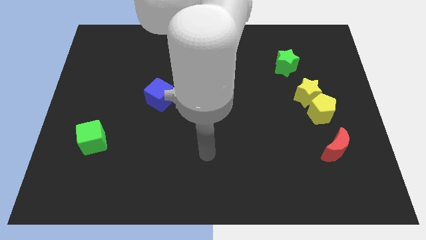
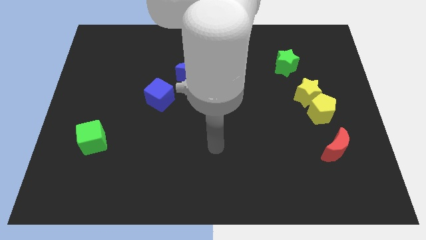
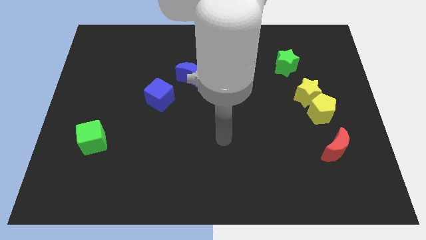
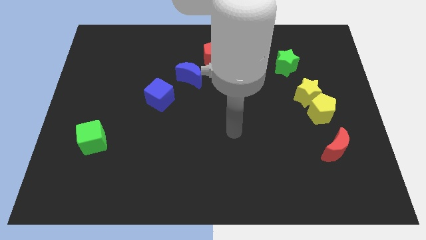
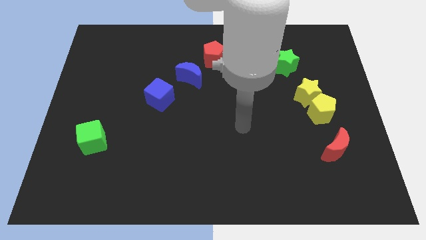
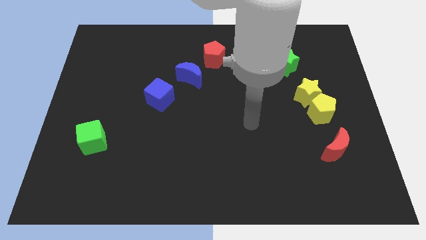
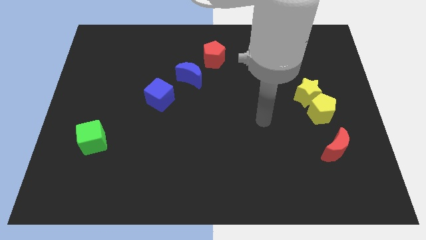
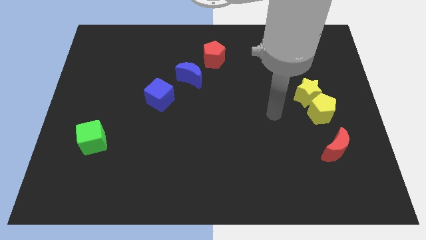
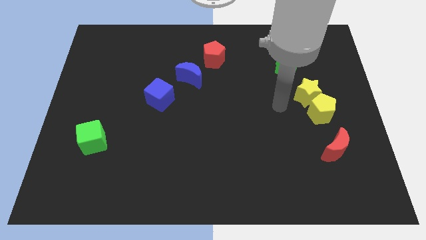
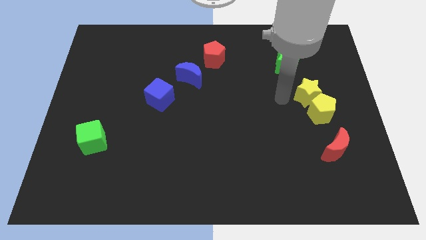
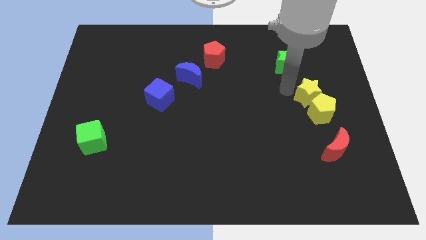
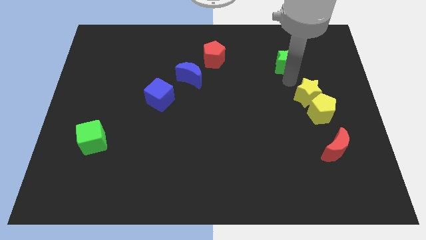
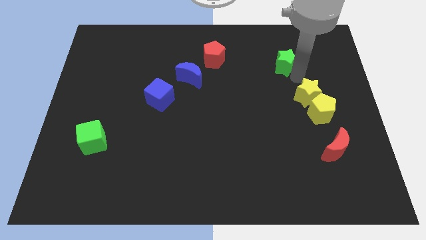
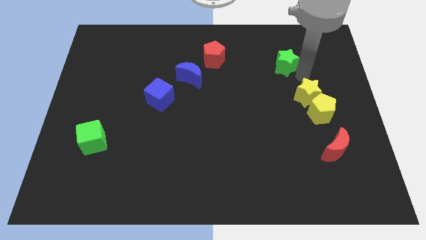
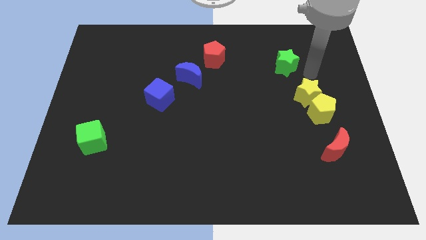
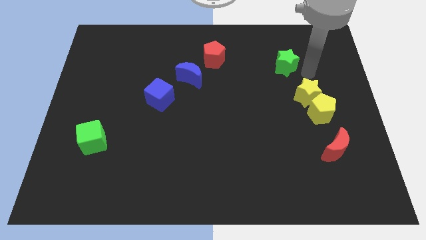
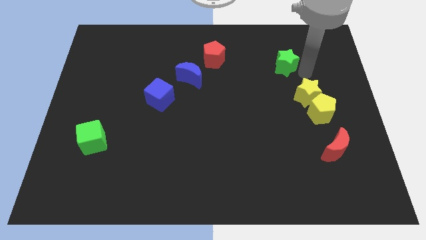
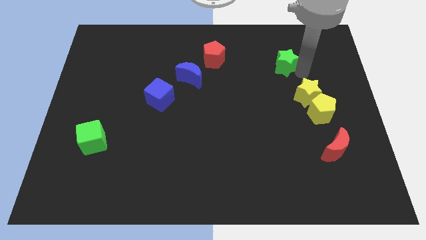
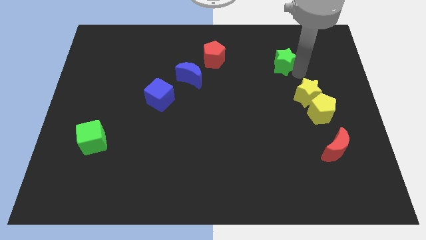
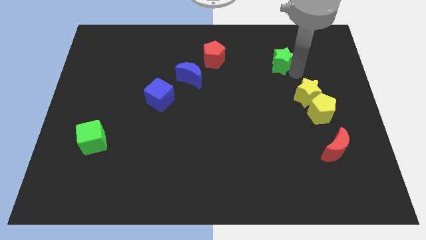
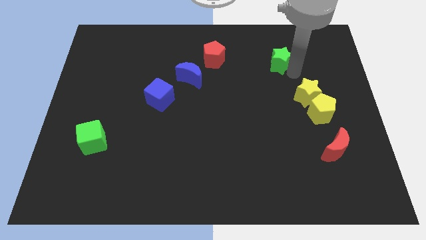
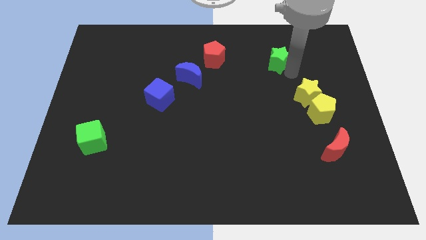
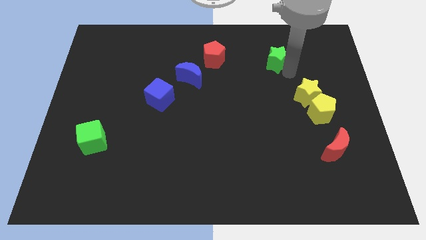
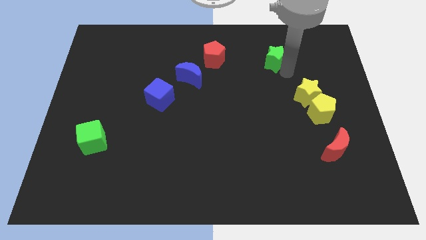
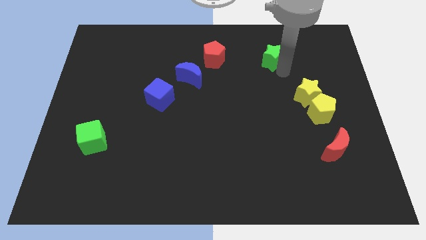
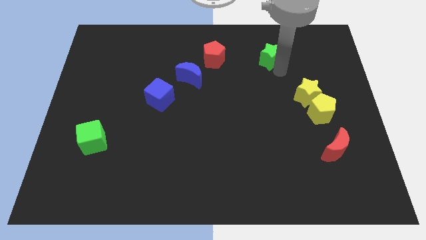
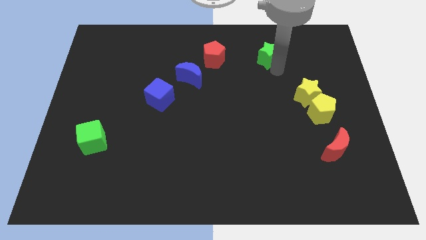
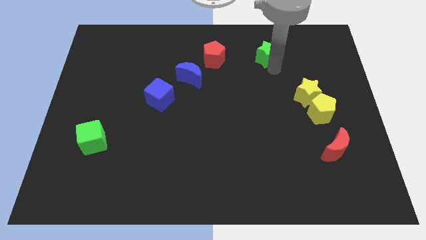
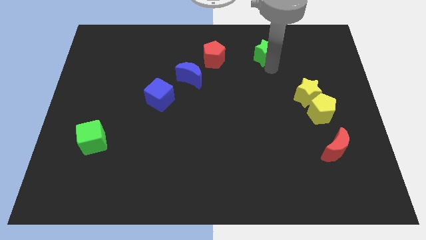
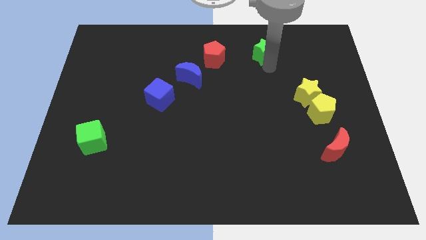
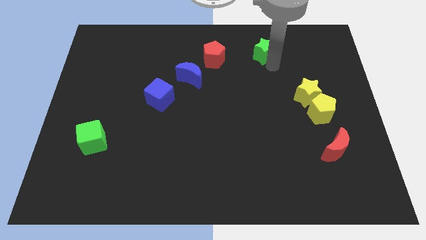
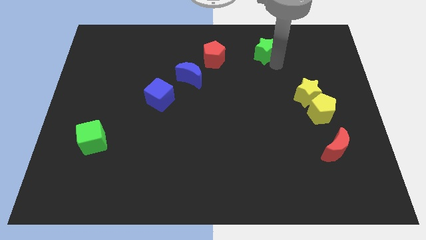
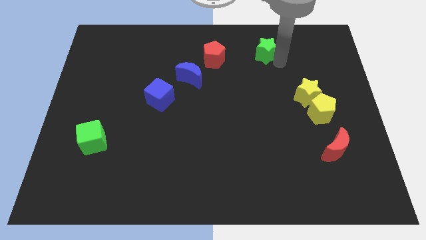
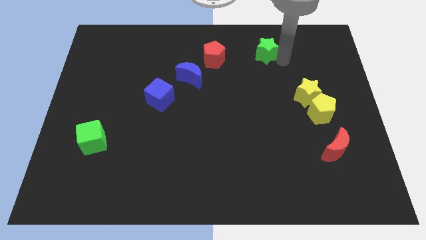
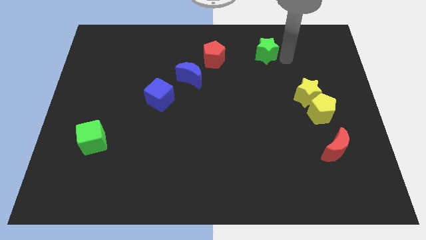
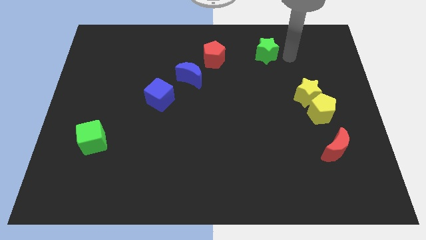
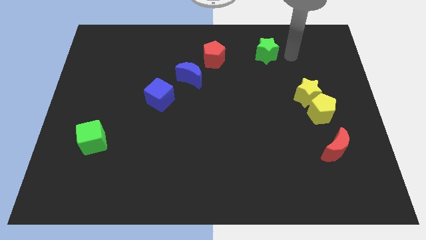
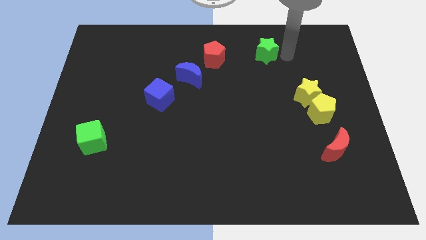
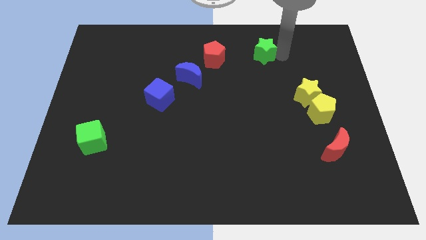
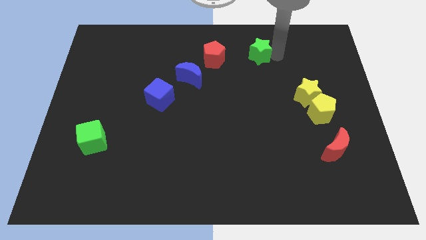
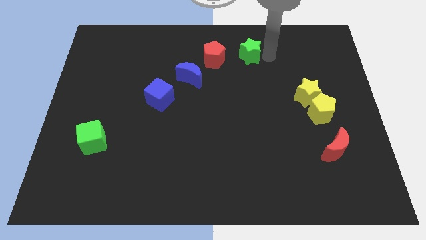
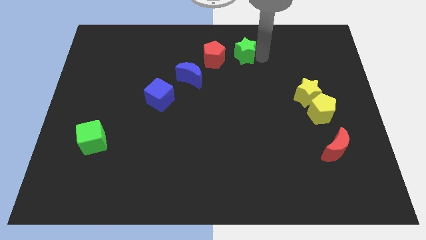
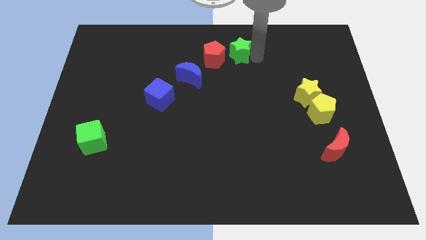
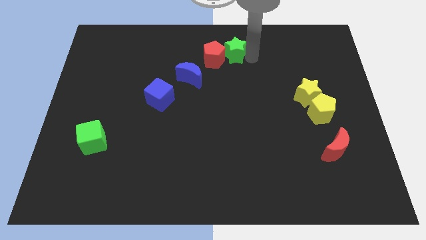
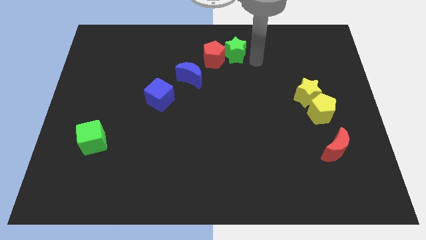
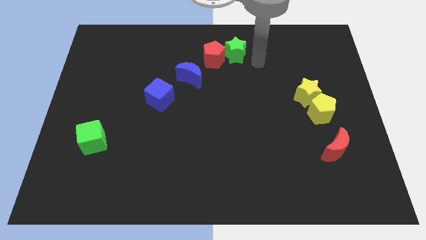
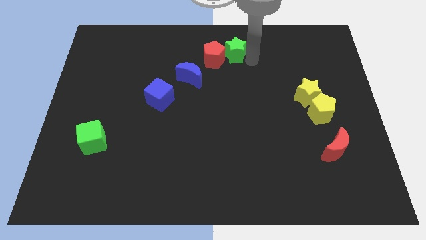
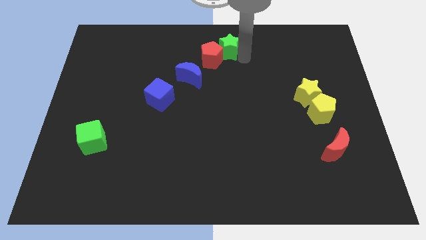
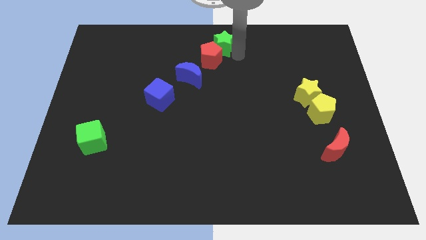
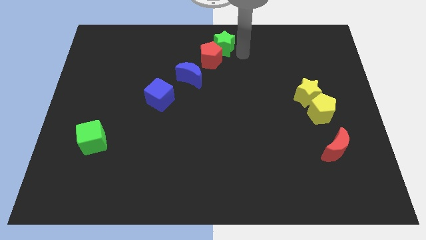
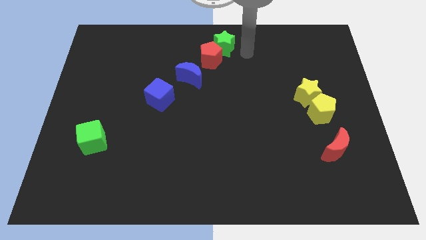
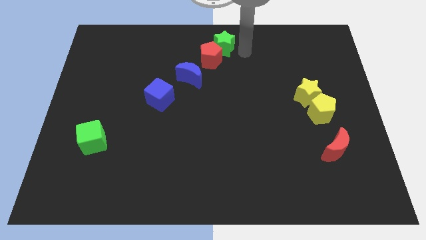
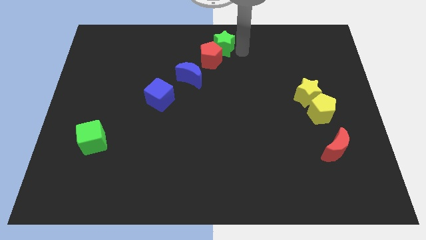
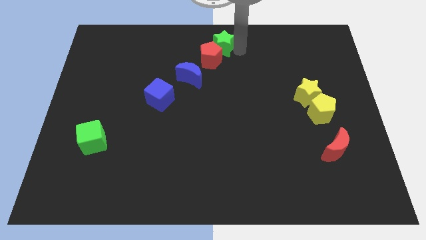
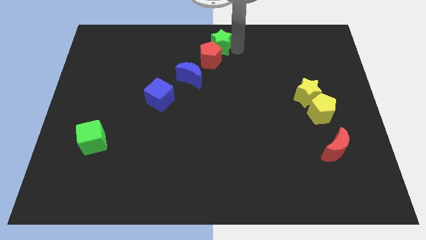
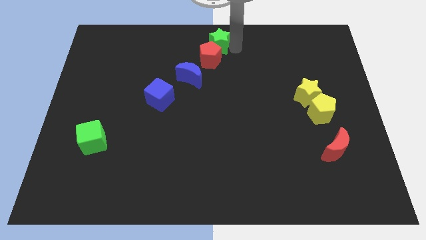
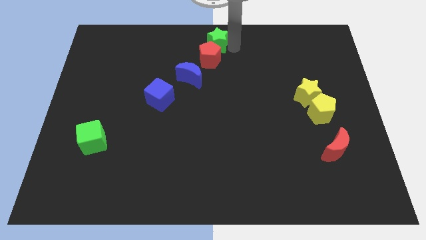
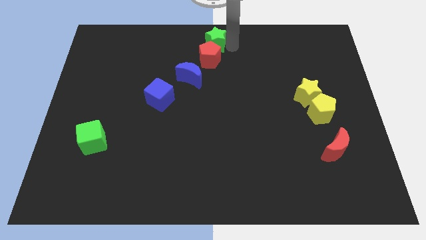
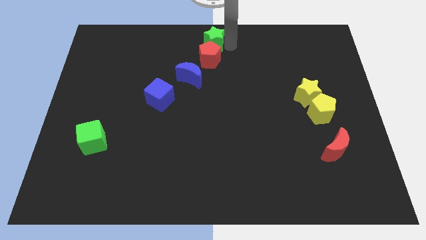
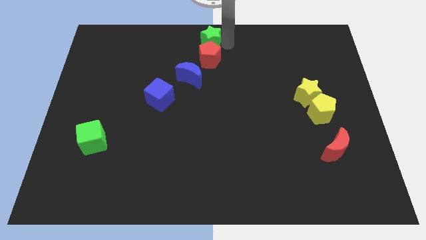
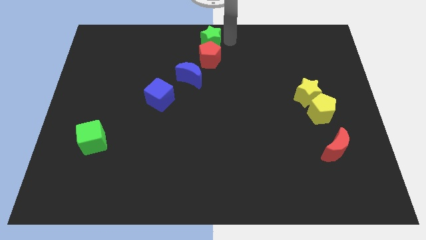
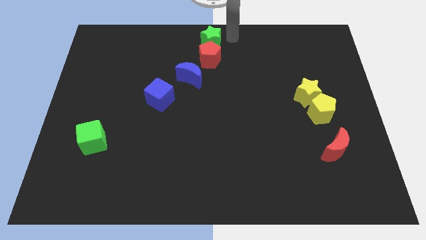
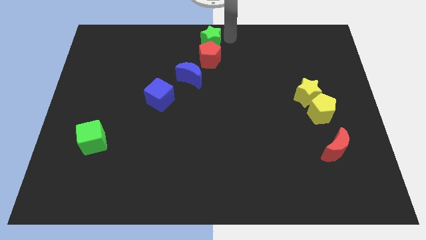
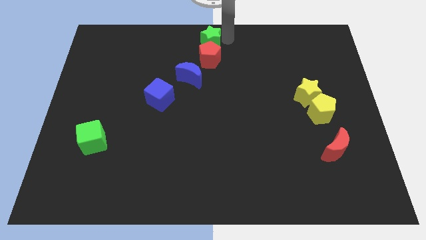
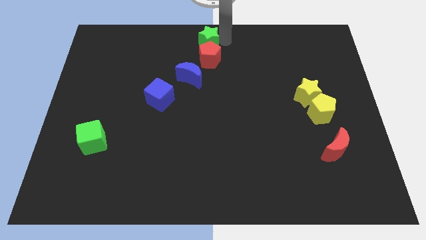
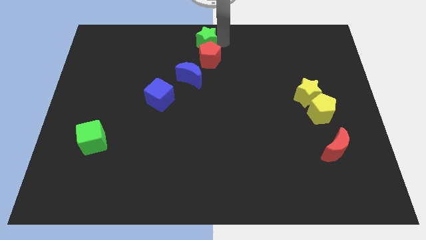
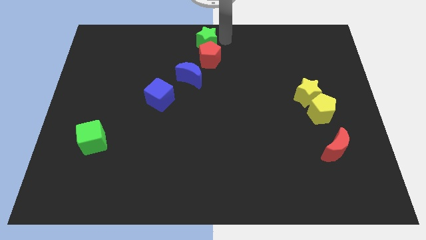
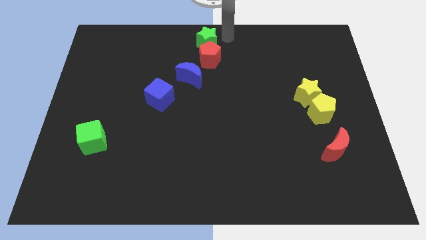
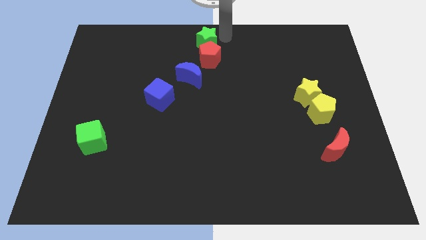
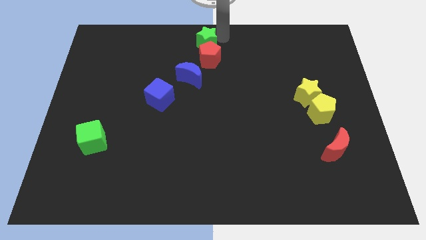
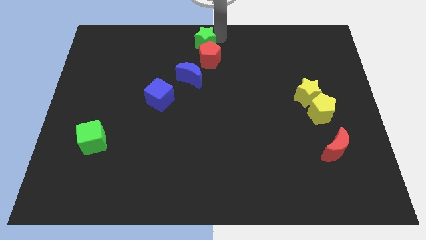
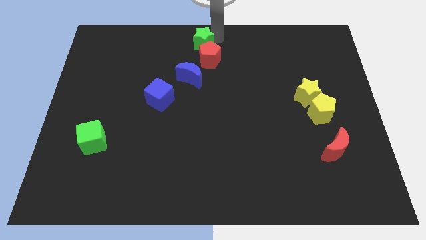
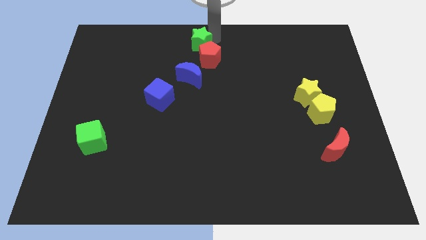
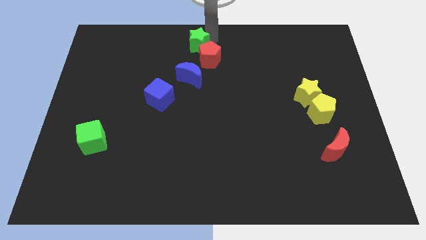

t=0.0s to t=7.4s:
push the green star to the left

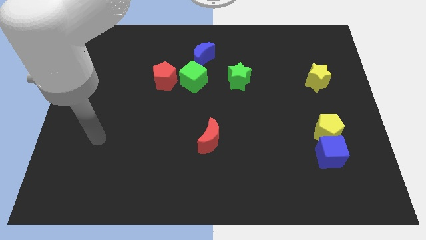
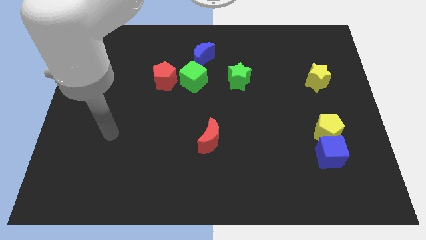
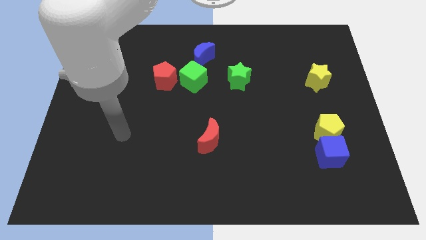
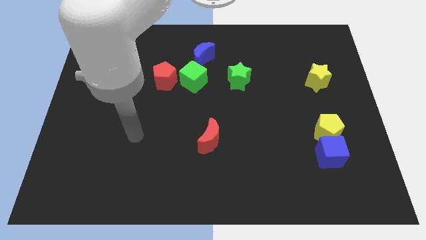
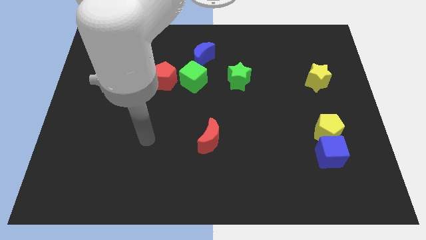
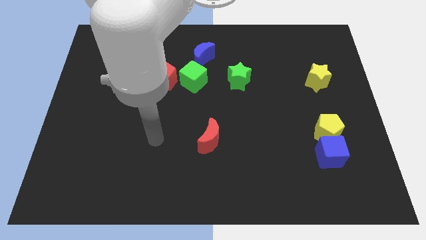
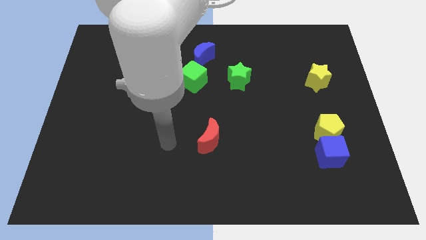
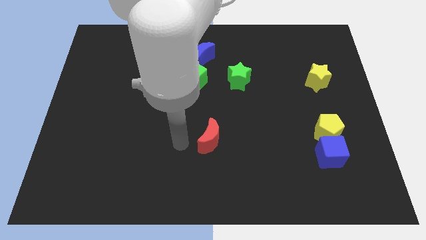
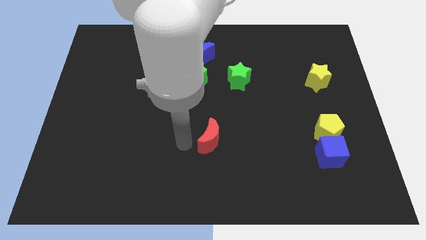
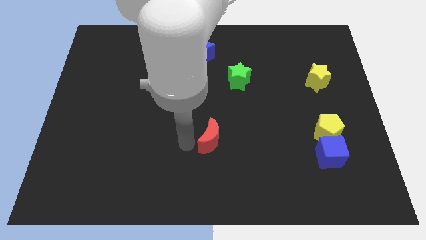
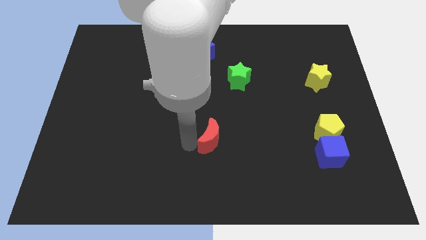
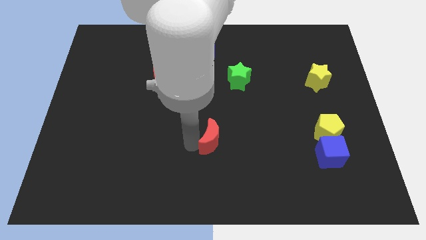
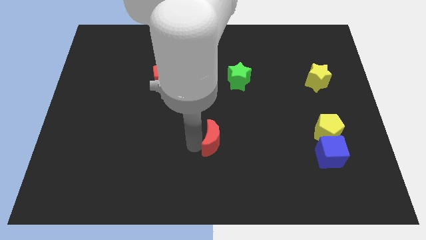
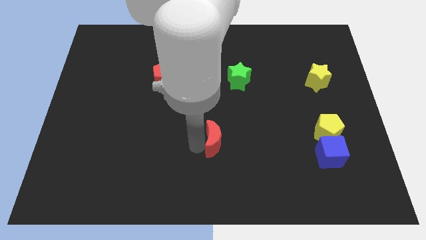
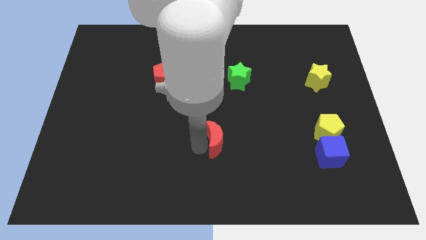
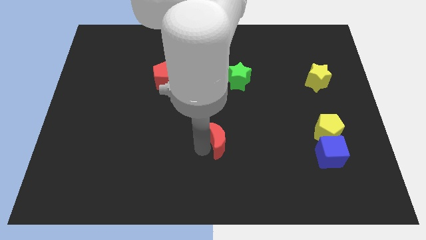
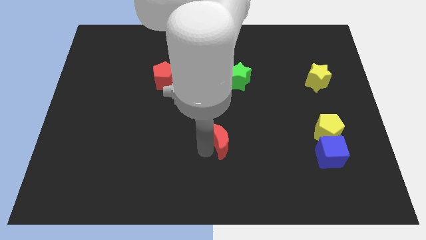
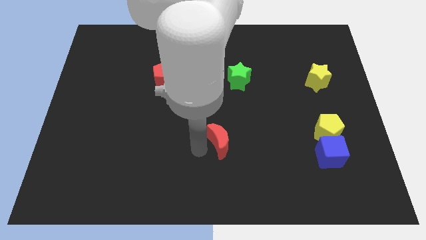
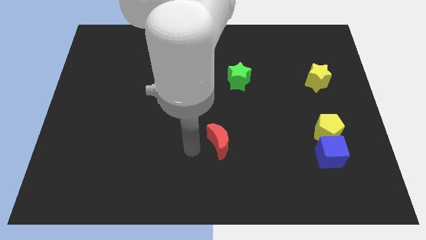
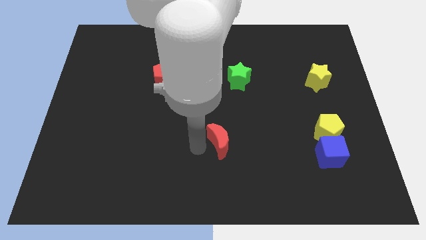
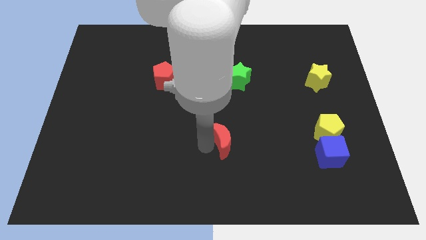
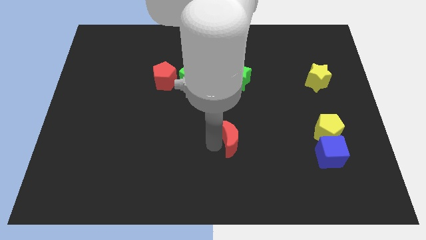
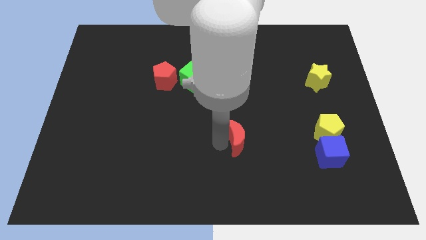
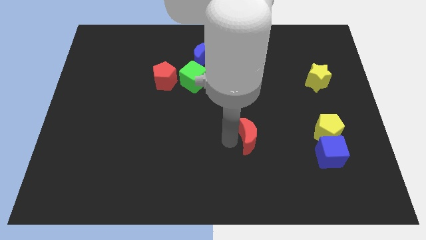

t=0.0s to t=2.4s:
move the red moon a bit to the right
